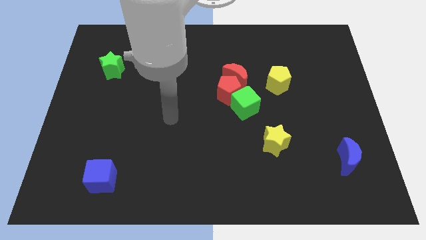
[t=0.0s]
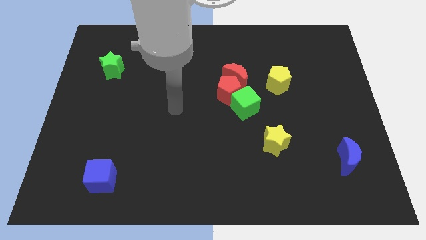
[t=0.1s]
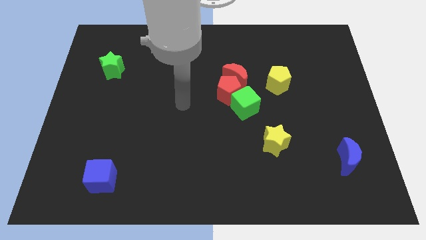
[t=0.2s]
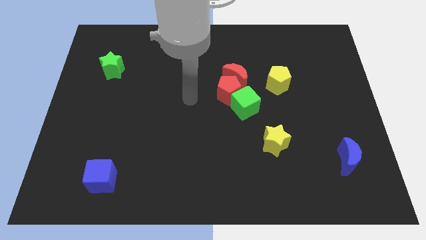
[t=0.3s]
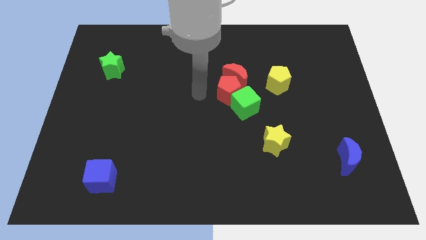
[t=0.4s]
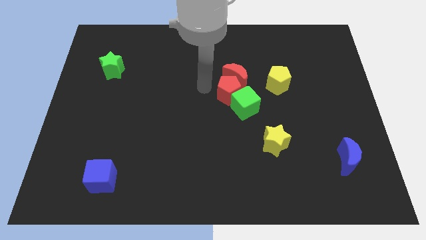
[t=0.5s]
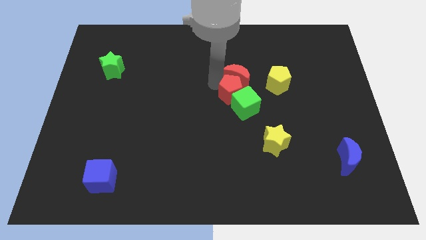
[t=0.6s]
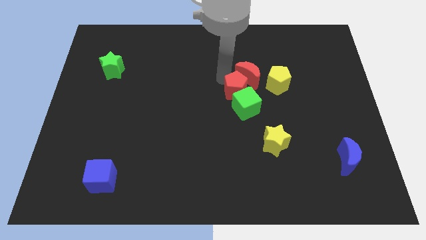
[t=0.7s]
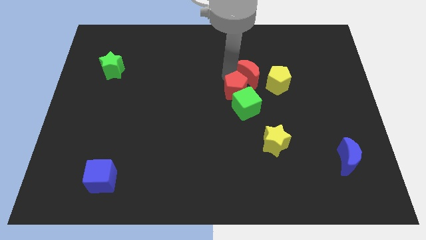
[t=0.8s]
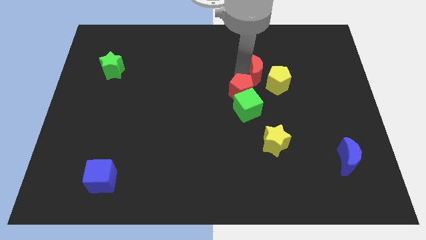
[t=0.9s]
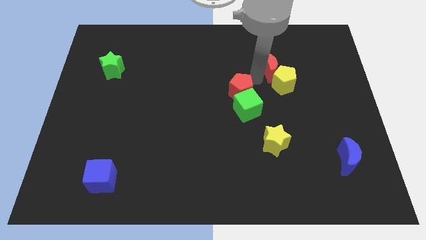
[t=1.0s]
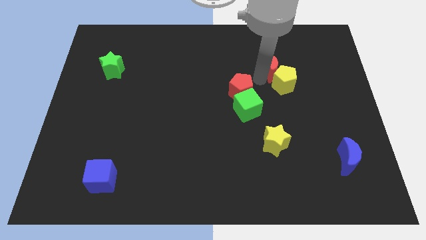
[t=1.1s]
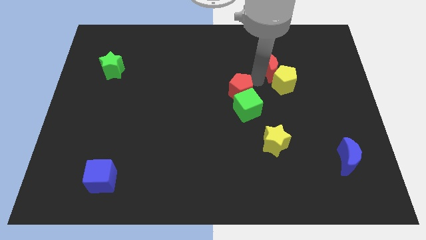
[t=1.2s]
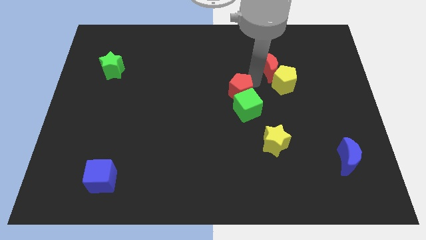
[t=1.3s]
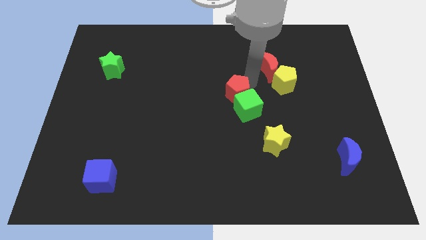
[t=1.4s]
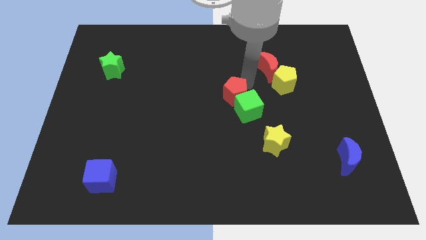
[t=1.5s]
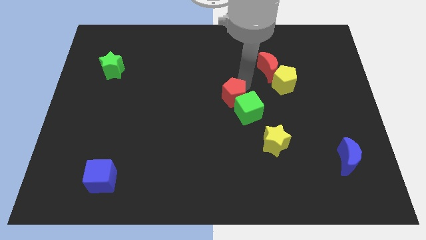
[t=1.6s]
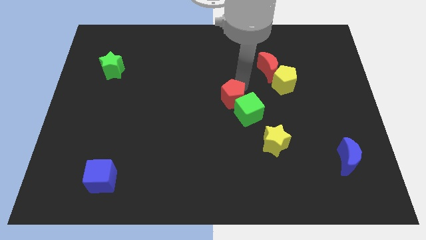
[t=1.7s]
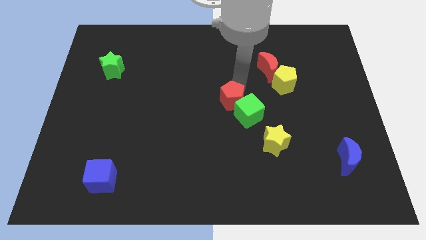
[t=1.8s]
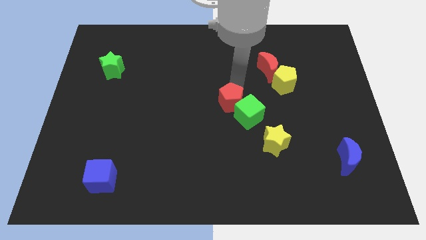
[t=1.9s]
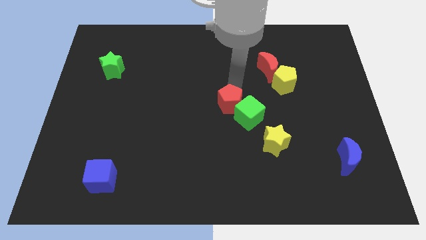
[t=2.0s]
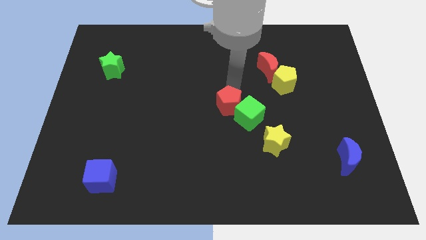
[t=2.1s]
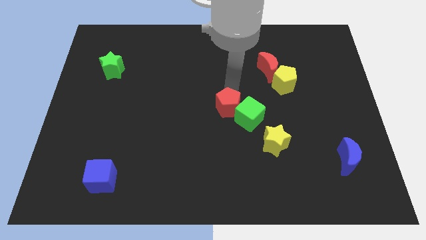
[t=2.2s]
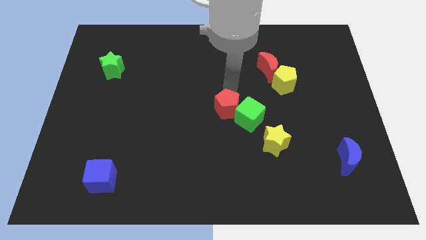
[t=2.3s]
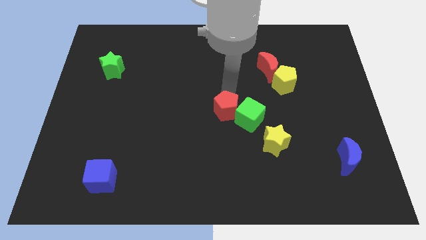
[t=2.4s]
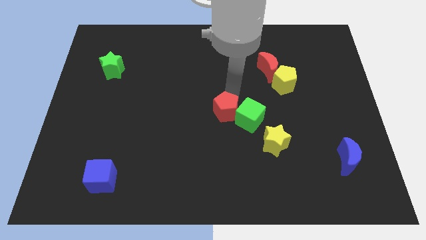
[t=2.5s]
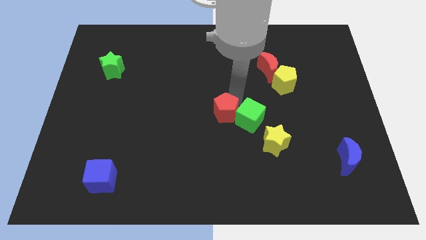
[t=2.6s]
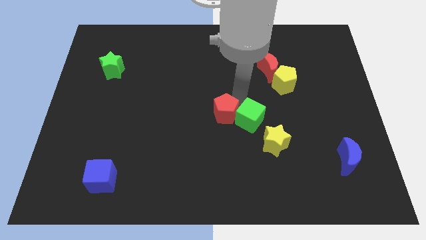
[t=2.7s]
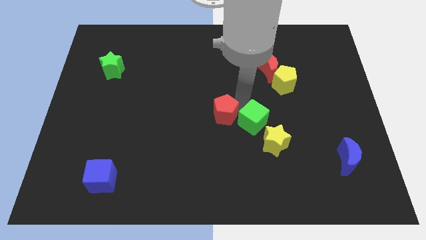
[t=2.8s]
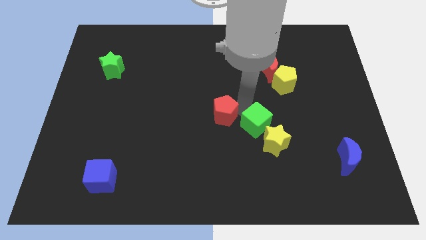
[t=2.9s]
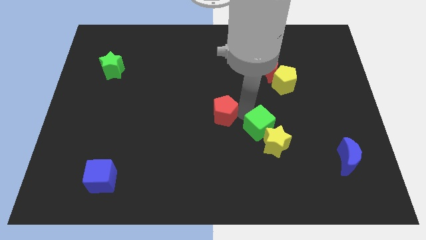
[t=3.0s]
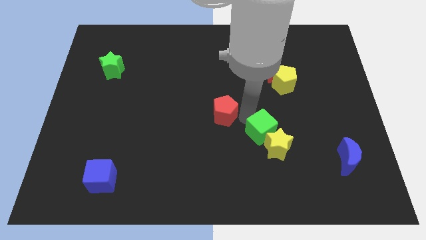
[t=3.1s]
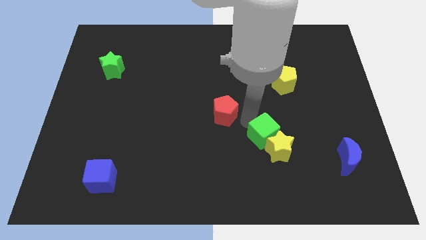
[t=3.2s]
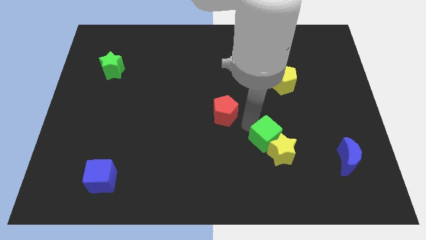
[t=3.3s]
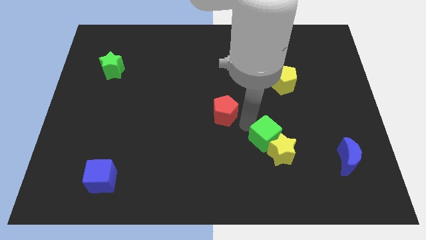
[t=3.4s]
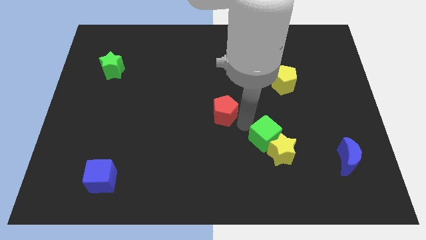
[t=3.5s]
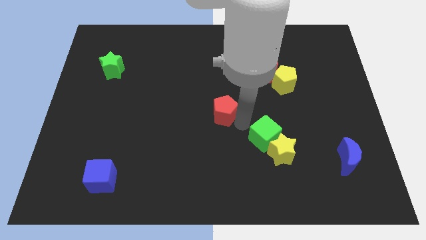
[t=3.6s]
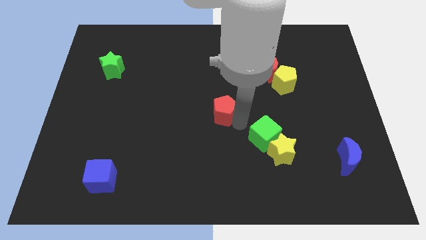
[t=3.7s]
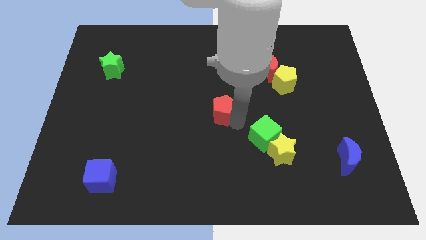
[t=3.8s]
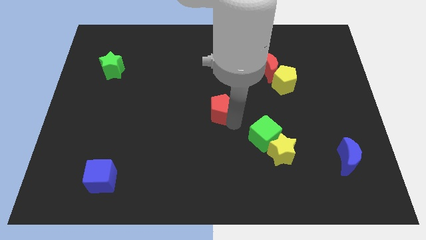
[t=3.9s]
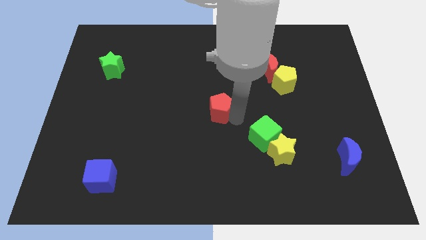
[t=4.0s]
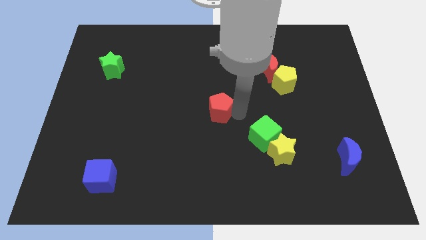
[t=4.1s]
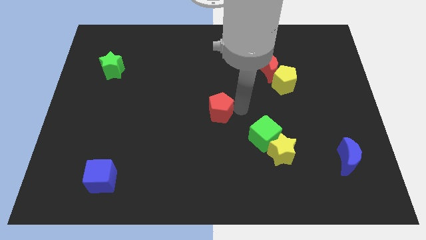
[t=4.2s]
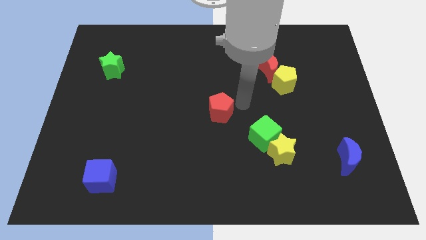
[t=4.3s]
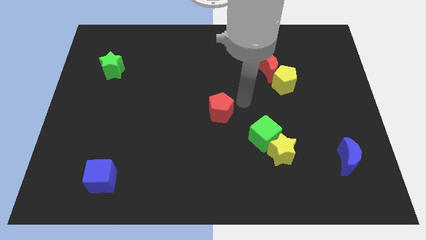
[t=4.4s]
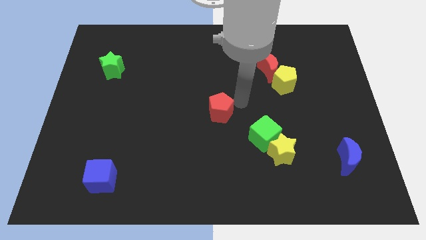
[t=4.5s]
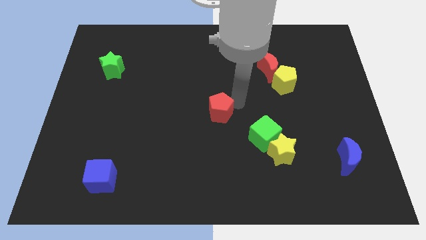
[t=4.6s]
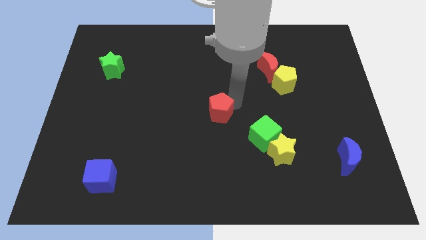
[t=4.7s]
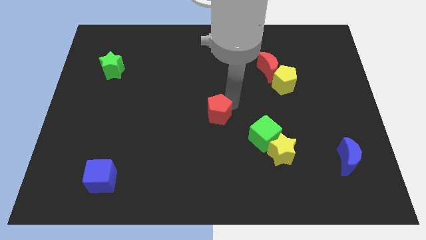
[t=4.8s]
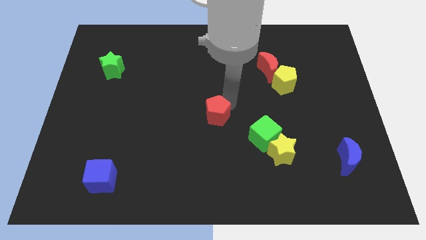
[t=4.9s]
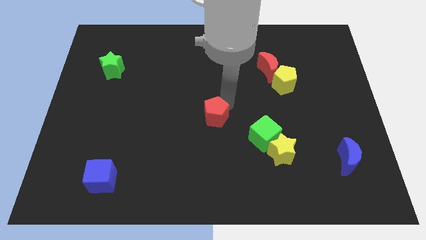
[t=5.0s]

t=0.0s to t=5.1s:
slightly push the red pentagon downwards and then to the left

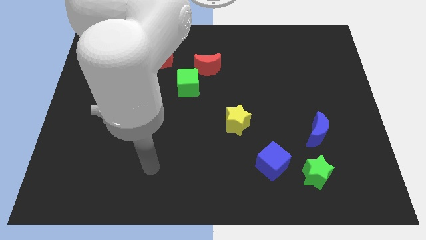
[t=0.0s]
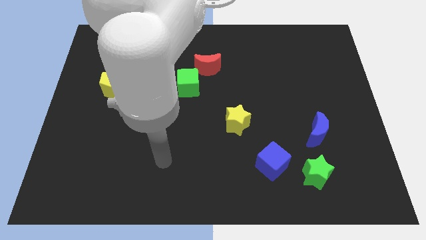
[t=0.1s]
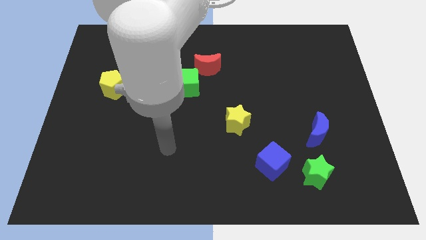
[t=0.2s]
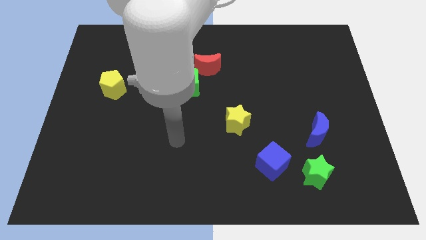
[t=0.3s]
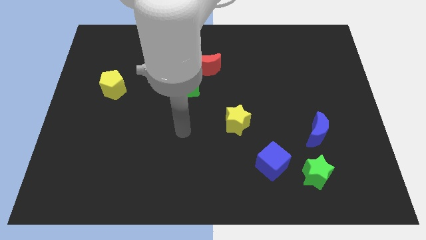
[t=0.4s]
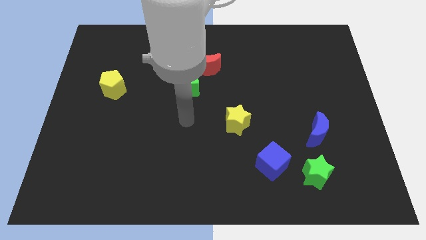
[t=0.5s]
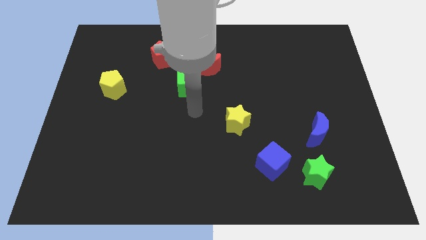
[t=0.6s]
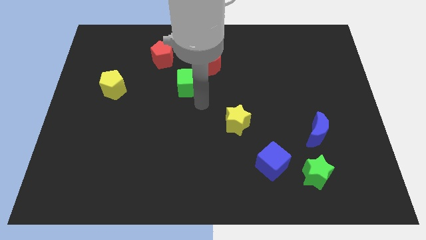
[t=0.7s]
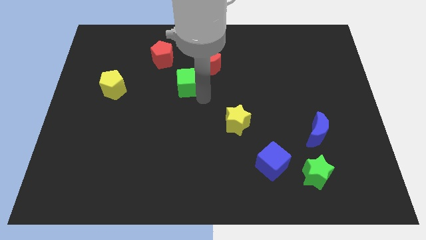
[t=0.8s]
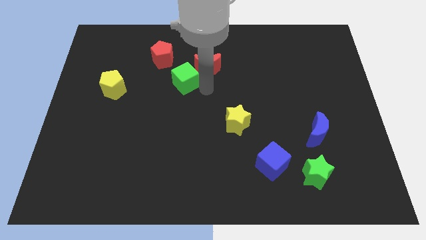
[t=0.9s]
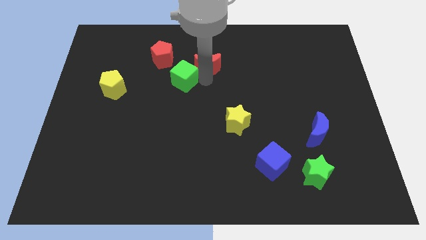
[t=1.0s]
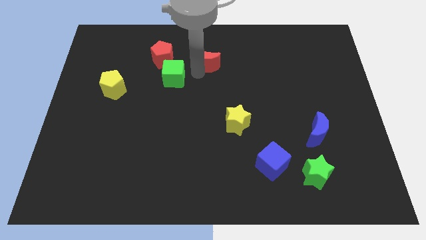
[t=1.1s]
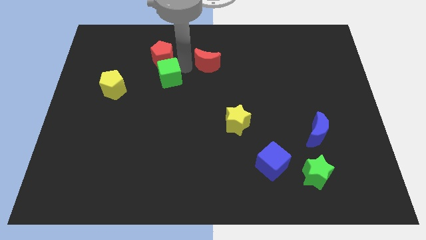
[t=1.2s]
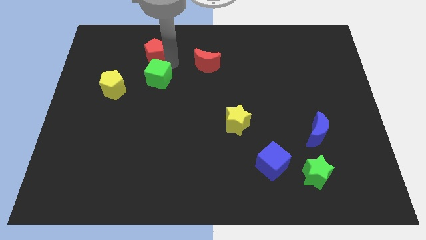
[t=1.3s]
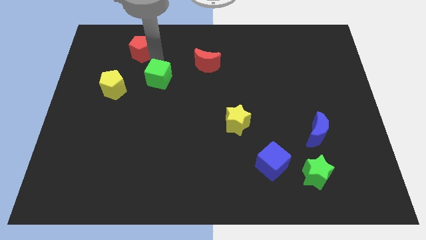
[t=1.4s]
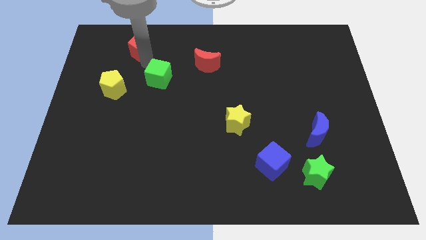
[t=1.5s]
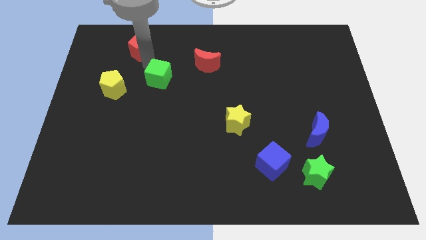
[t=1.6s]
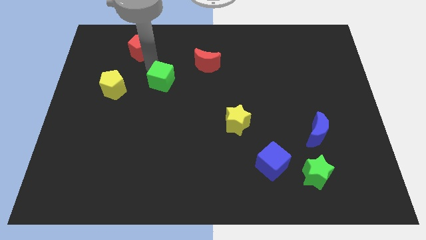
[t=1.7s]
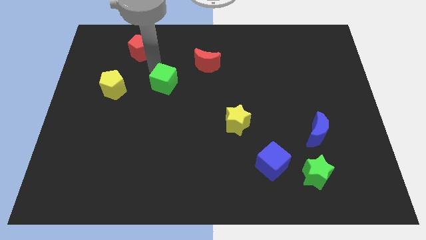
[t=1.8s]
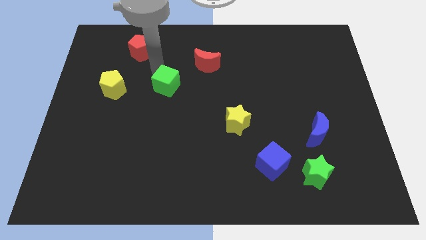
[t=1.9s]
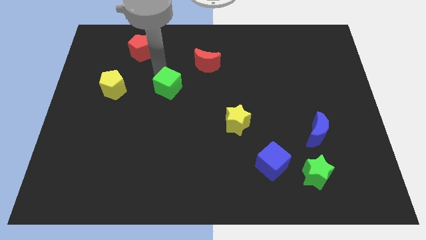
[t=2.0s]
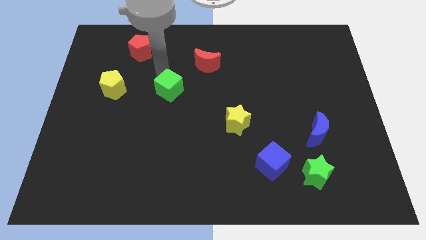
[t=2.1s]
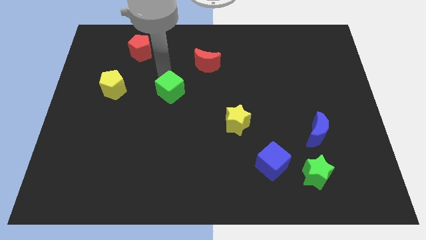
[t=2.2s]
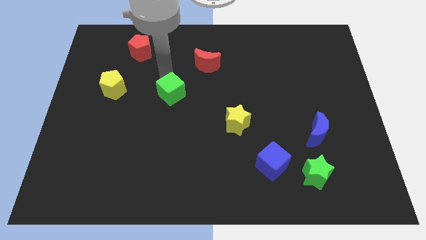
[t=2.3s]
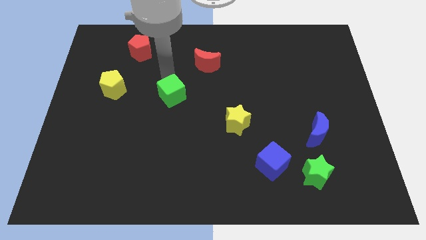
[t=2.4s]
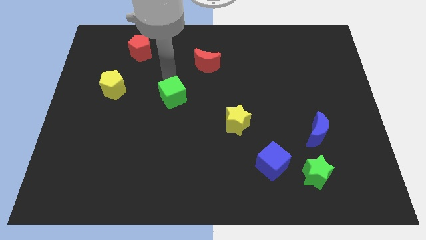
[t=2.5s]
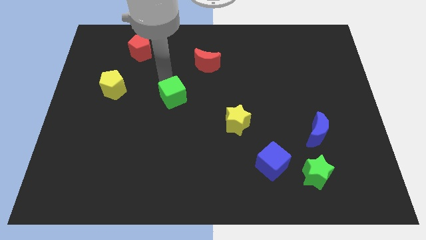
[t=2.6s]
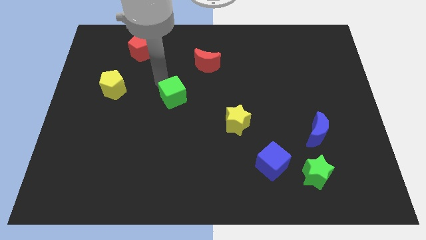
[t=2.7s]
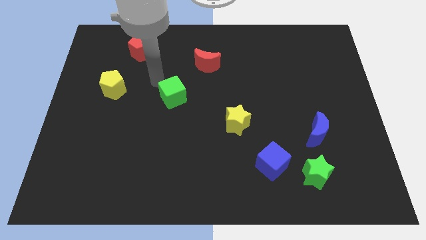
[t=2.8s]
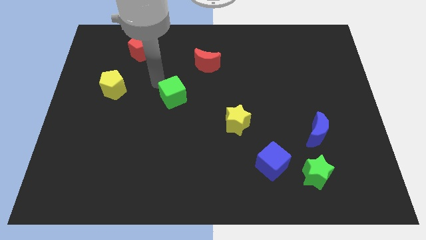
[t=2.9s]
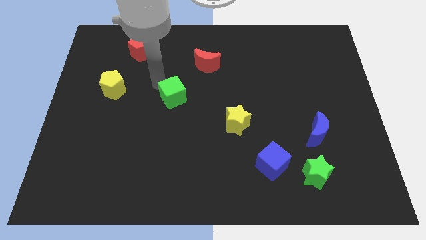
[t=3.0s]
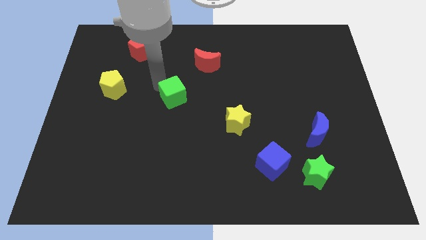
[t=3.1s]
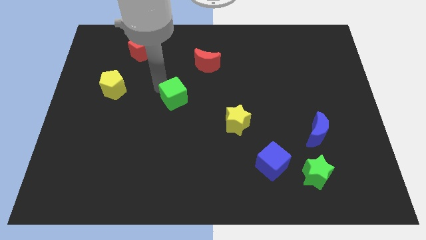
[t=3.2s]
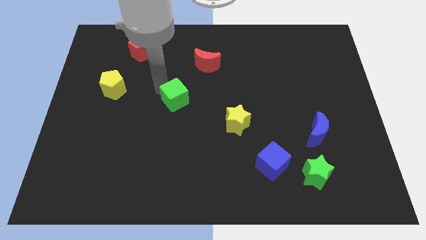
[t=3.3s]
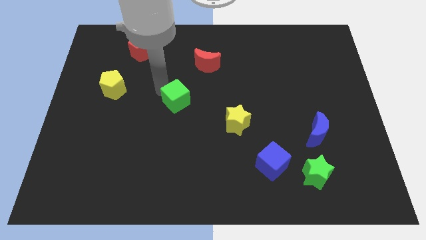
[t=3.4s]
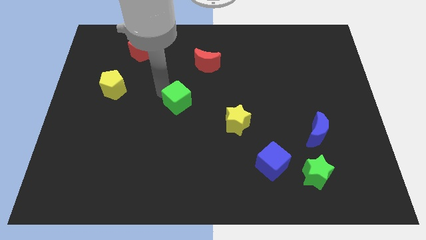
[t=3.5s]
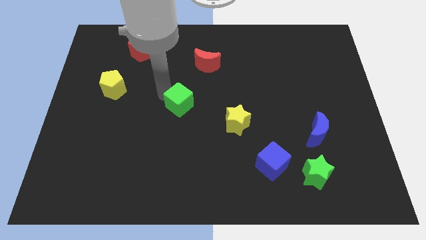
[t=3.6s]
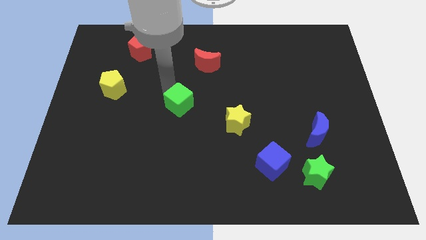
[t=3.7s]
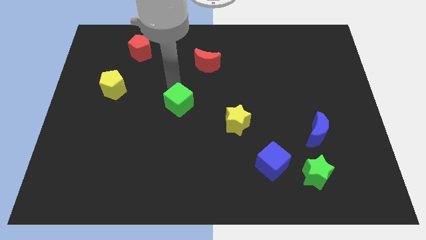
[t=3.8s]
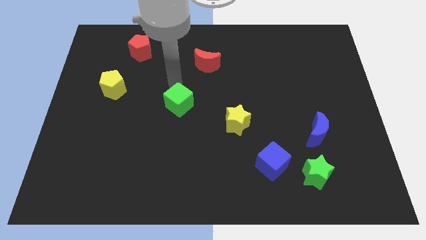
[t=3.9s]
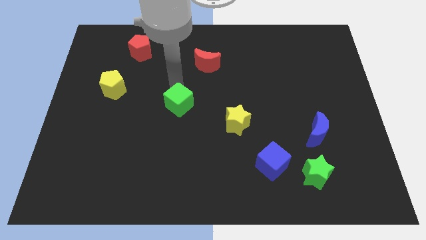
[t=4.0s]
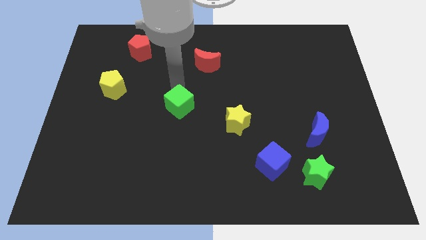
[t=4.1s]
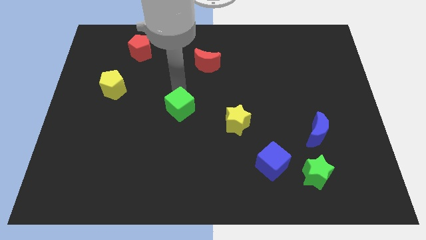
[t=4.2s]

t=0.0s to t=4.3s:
slide the green cube downwards a little
